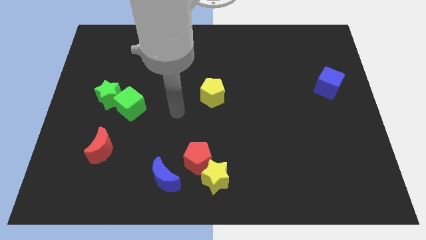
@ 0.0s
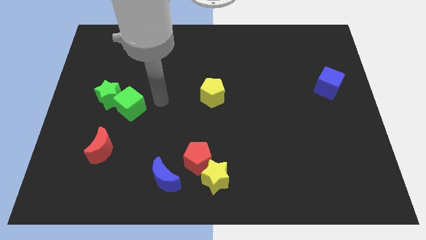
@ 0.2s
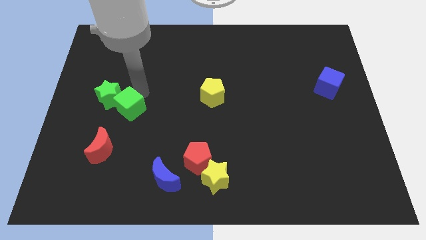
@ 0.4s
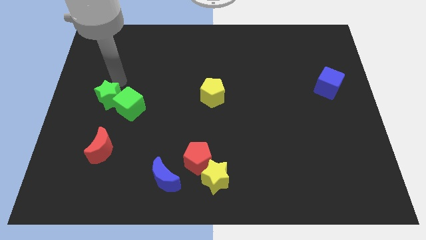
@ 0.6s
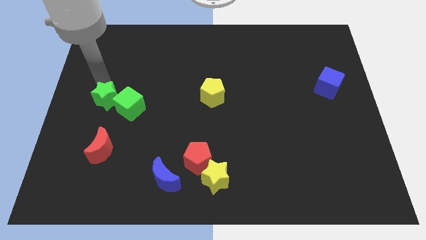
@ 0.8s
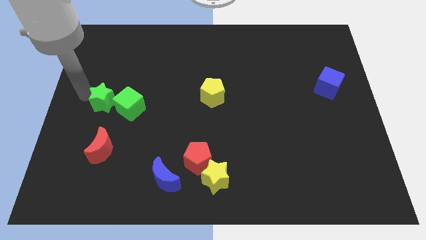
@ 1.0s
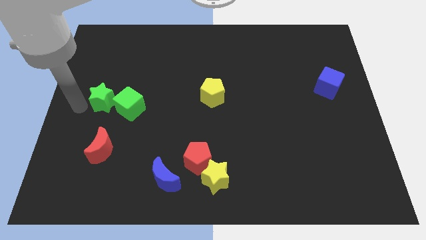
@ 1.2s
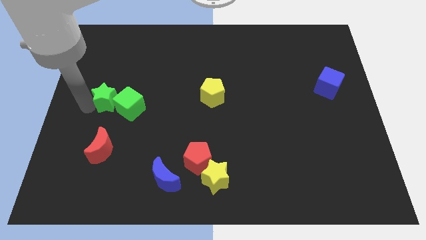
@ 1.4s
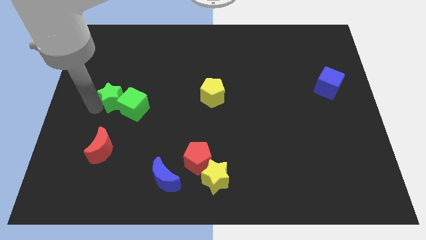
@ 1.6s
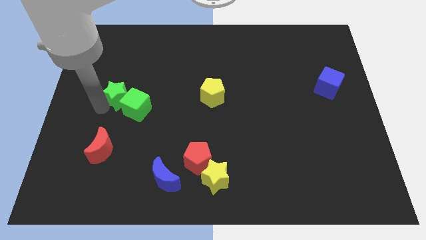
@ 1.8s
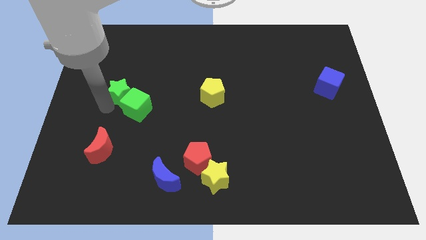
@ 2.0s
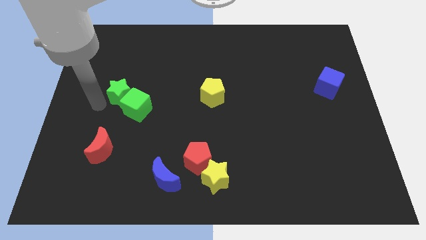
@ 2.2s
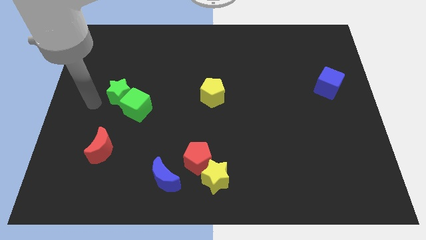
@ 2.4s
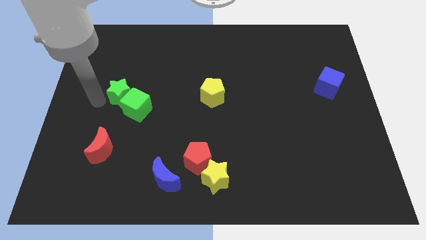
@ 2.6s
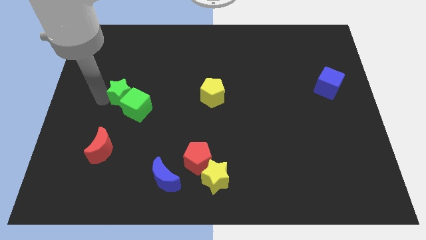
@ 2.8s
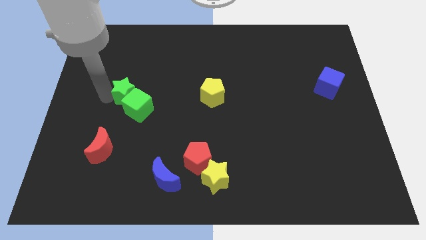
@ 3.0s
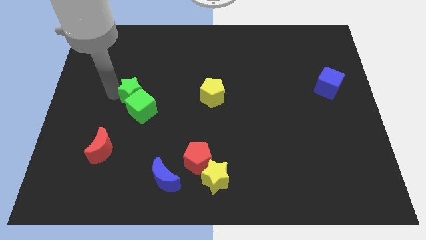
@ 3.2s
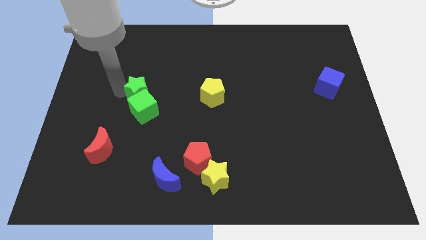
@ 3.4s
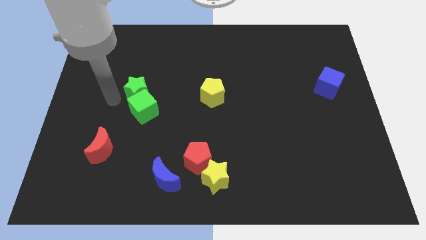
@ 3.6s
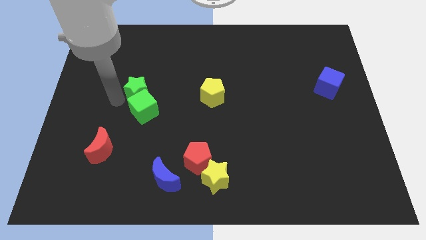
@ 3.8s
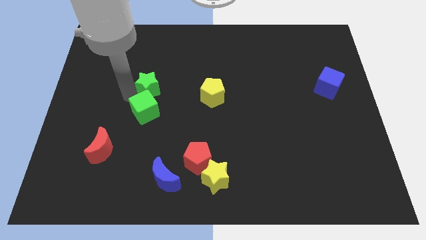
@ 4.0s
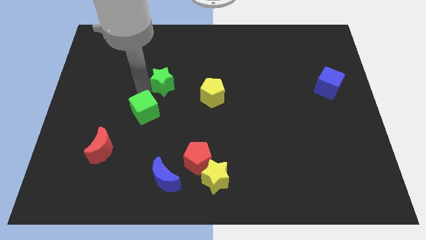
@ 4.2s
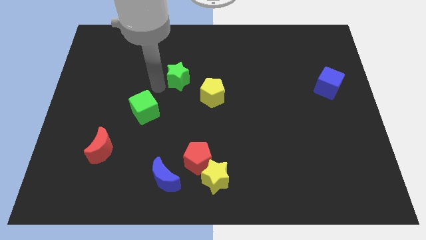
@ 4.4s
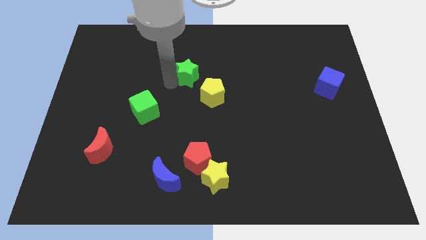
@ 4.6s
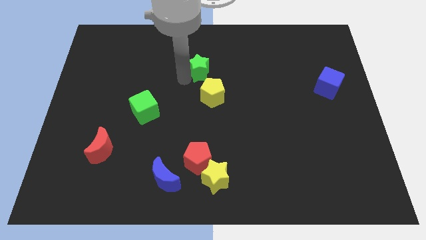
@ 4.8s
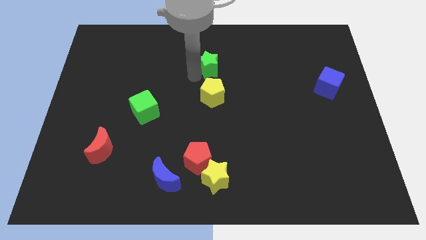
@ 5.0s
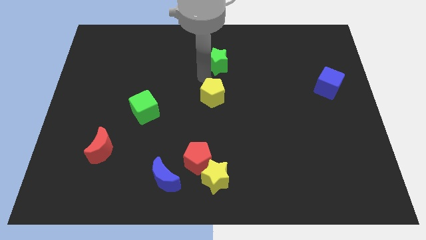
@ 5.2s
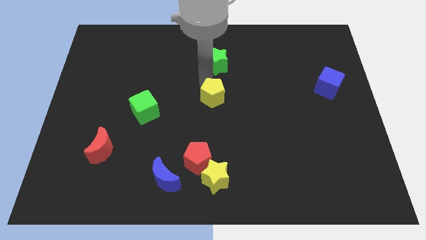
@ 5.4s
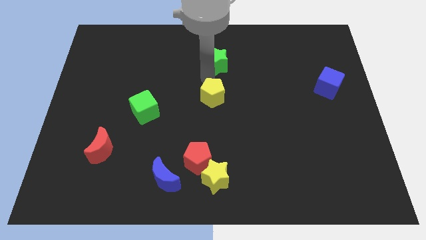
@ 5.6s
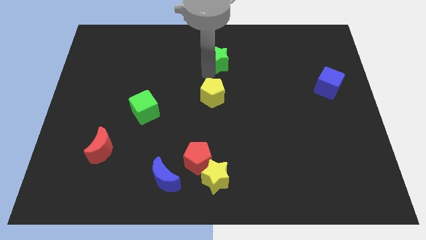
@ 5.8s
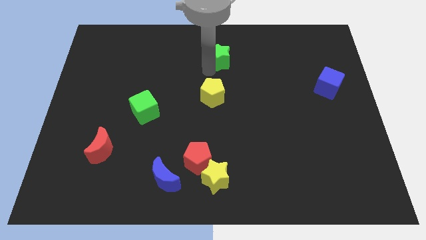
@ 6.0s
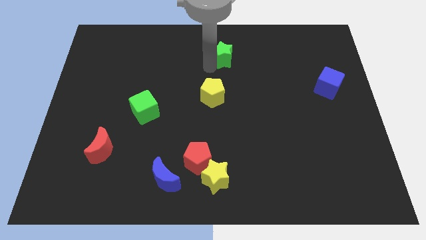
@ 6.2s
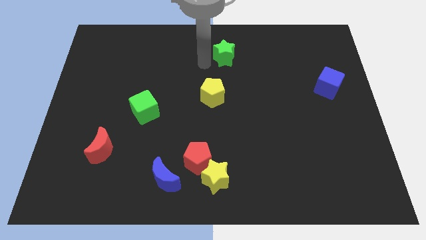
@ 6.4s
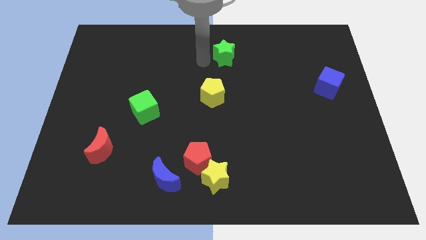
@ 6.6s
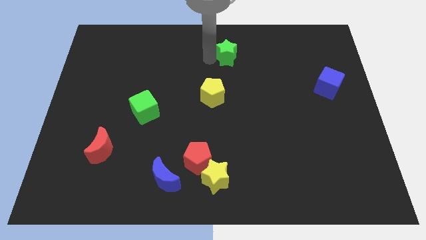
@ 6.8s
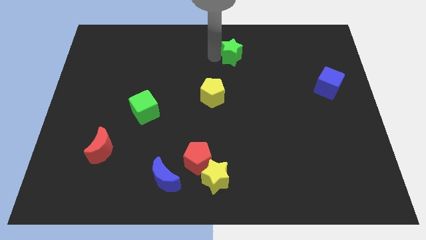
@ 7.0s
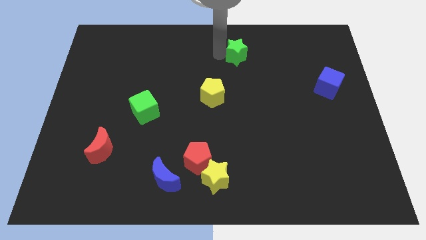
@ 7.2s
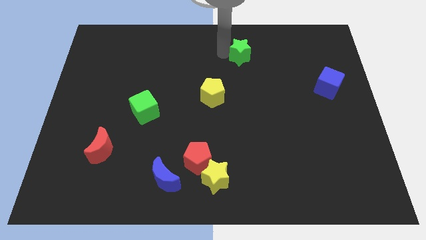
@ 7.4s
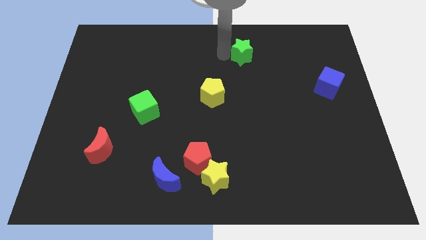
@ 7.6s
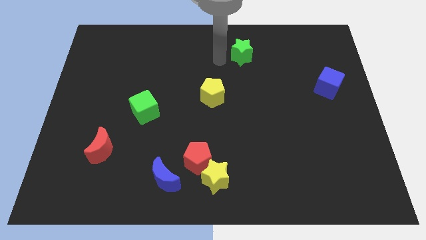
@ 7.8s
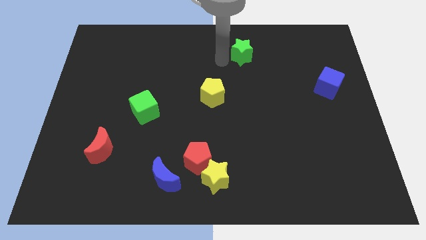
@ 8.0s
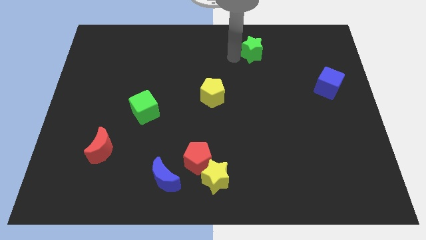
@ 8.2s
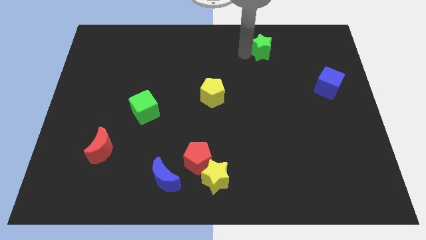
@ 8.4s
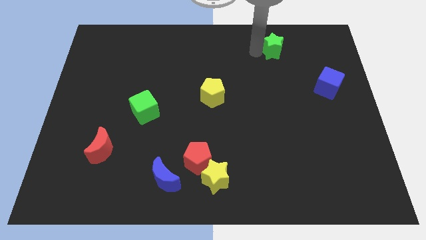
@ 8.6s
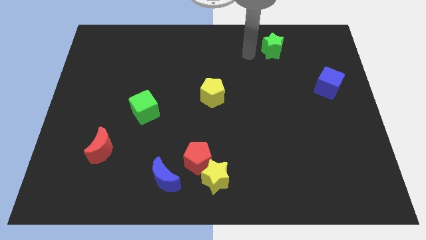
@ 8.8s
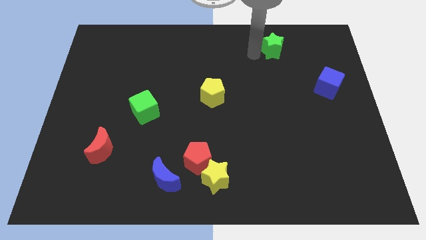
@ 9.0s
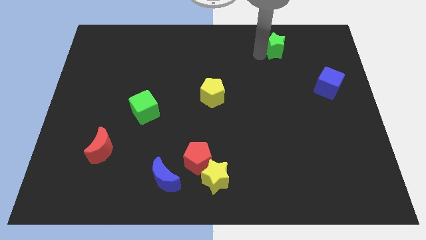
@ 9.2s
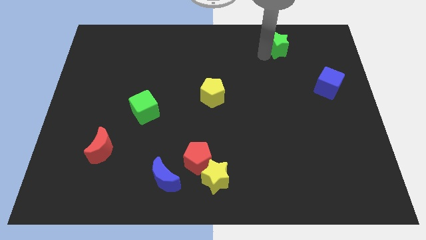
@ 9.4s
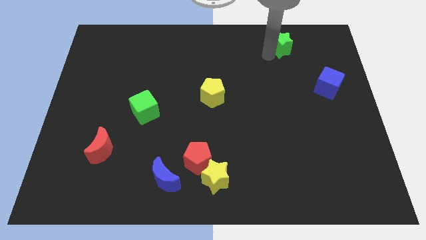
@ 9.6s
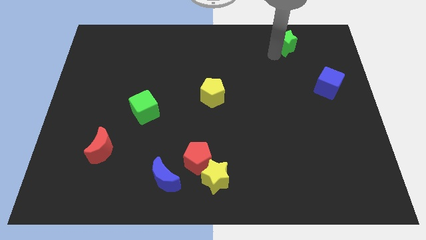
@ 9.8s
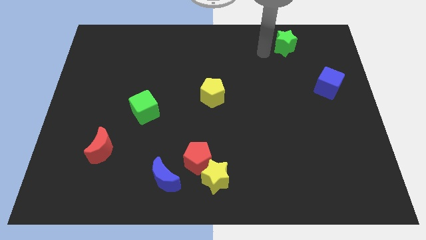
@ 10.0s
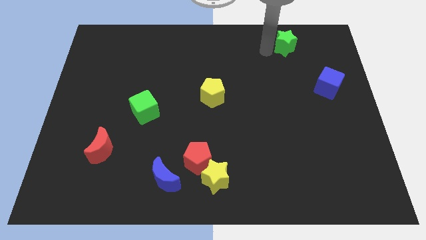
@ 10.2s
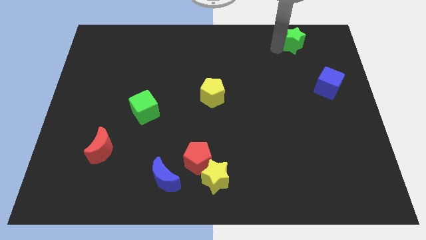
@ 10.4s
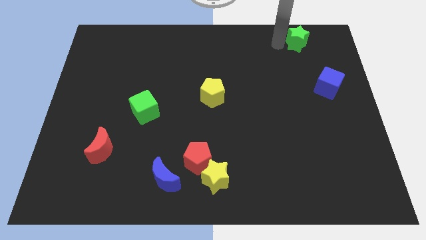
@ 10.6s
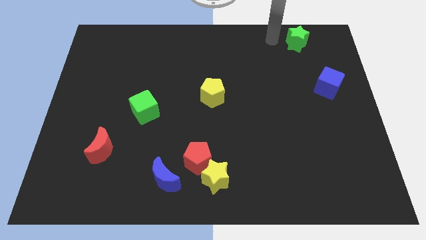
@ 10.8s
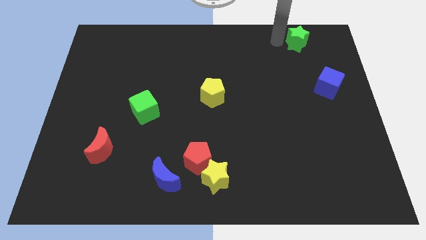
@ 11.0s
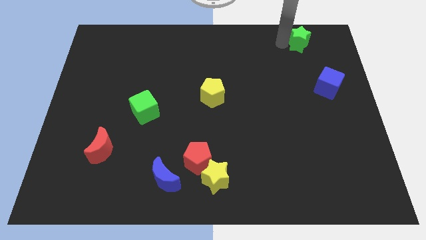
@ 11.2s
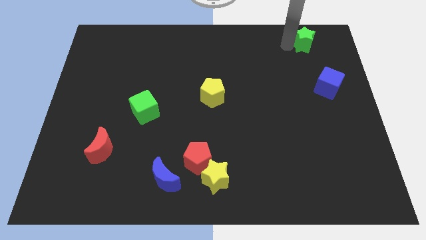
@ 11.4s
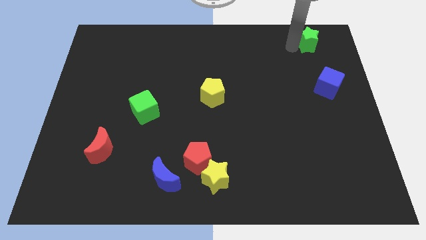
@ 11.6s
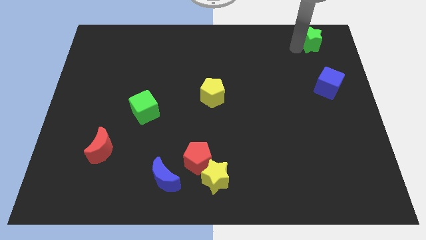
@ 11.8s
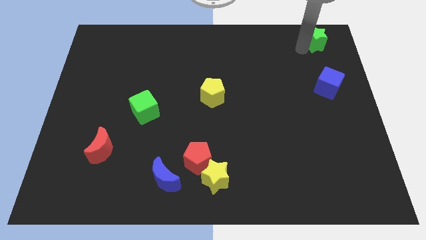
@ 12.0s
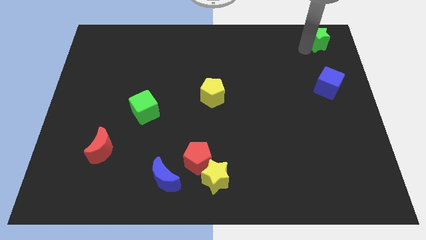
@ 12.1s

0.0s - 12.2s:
slide the green star to the top right of the board
